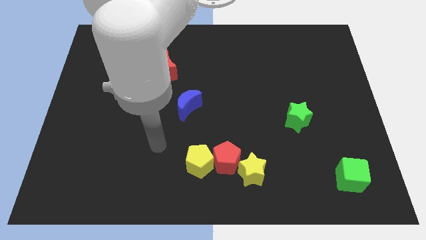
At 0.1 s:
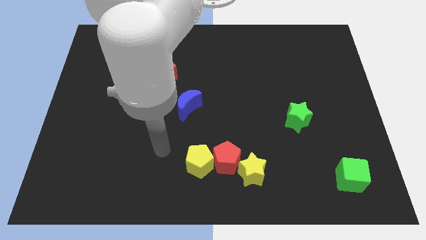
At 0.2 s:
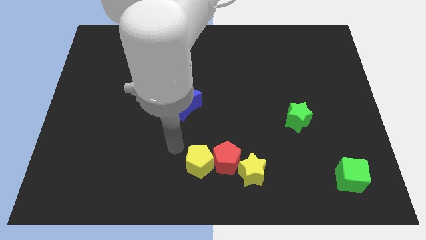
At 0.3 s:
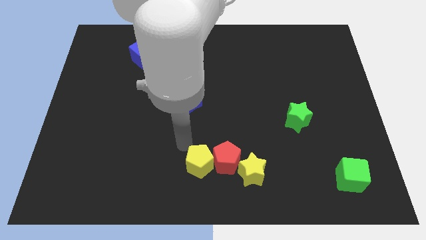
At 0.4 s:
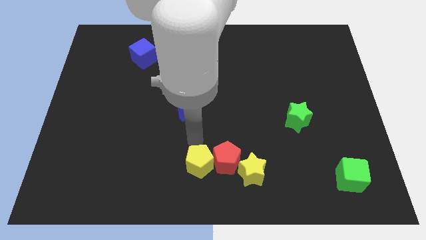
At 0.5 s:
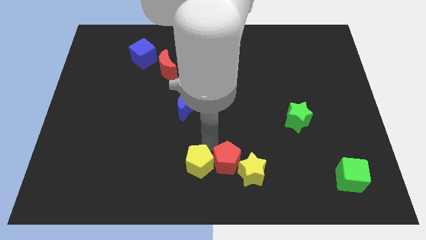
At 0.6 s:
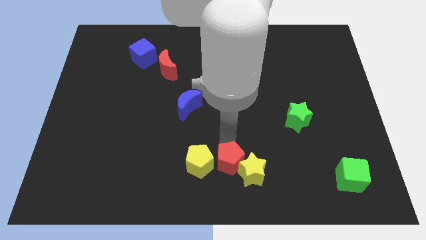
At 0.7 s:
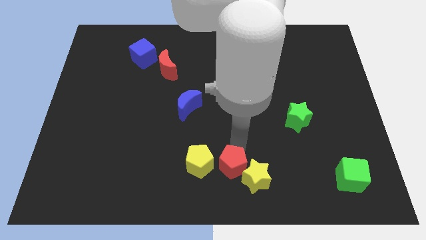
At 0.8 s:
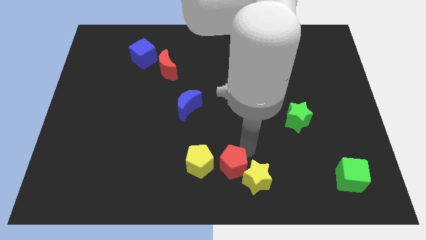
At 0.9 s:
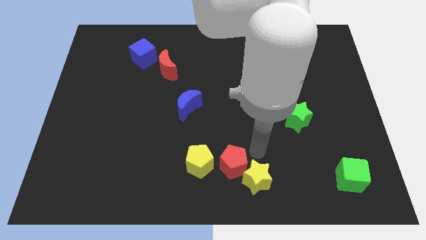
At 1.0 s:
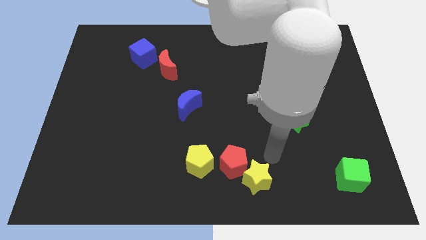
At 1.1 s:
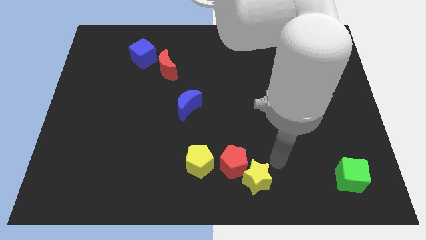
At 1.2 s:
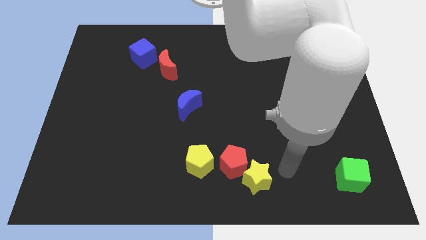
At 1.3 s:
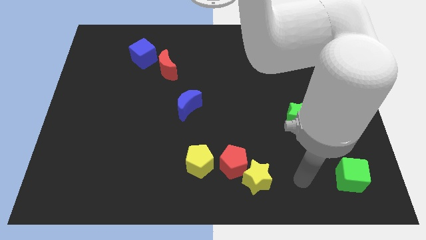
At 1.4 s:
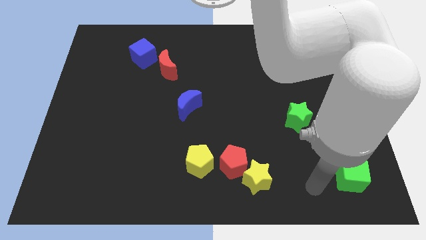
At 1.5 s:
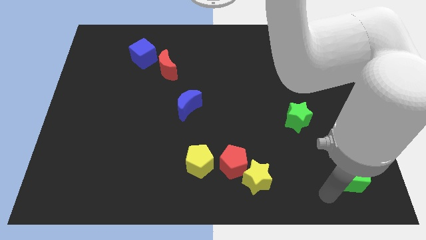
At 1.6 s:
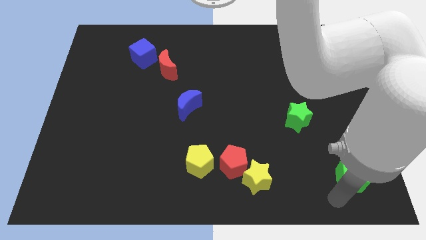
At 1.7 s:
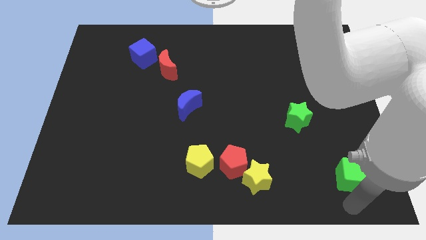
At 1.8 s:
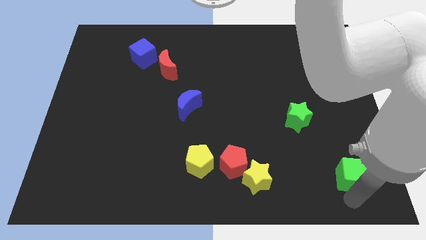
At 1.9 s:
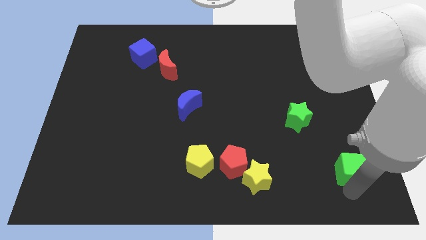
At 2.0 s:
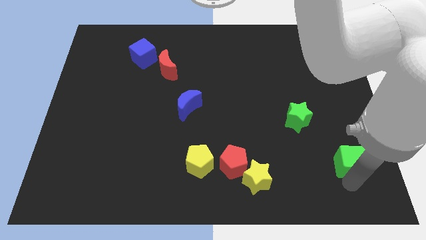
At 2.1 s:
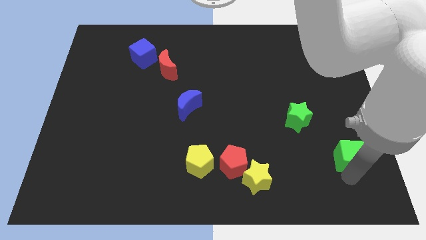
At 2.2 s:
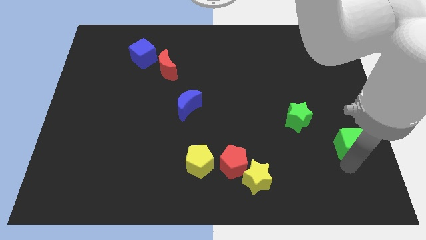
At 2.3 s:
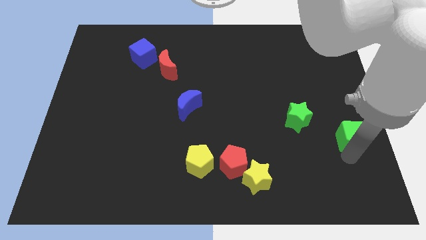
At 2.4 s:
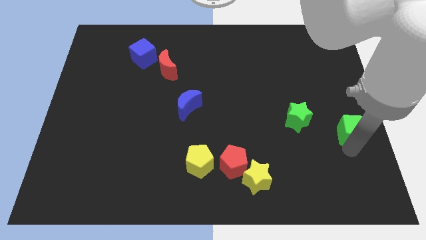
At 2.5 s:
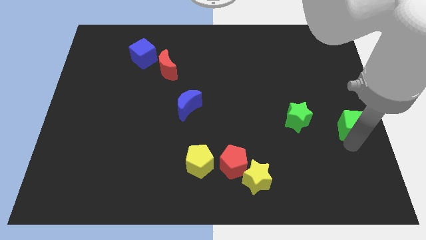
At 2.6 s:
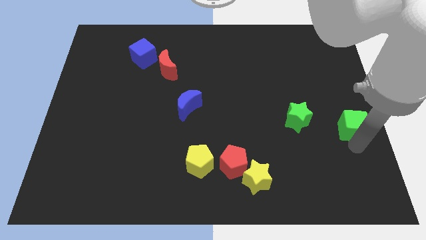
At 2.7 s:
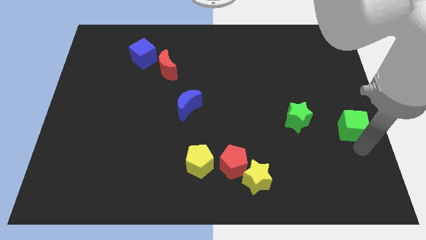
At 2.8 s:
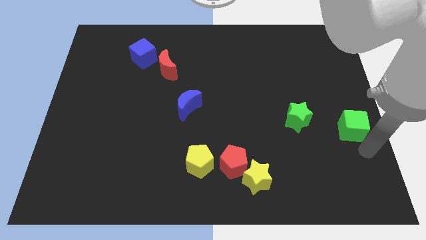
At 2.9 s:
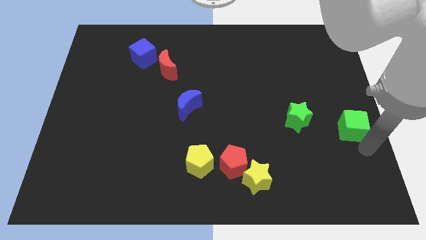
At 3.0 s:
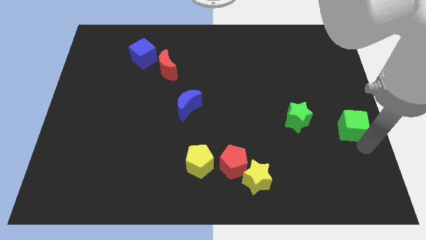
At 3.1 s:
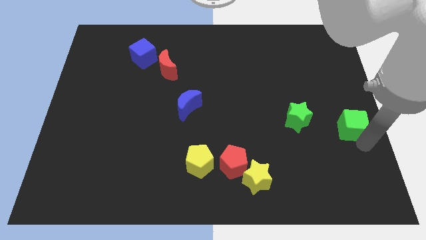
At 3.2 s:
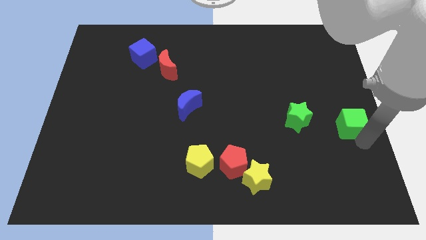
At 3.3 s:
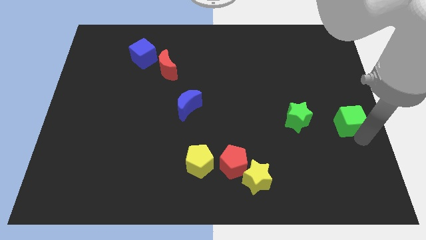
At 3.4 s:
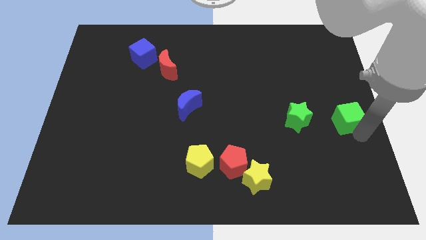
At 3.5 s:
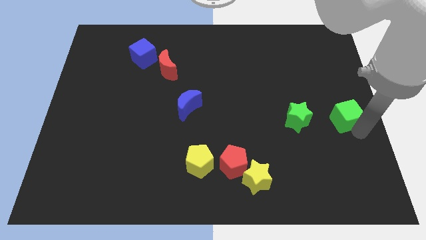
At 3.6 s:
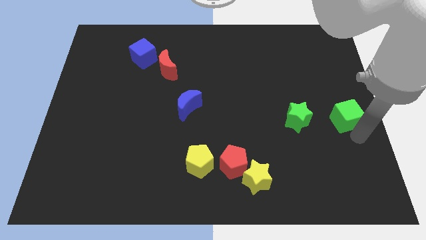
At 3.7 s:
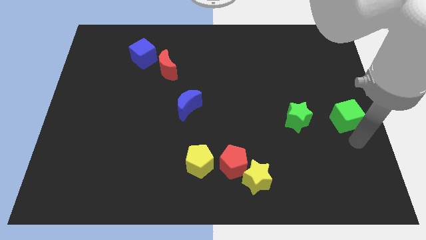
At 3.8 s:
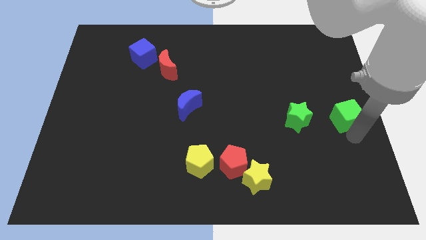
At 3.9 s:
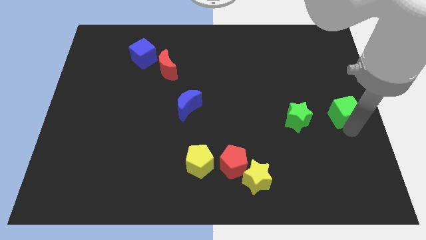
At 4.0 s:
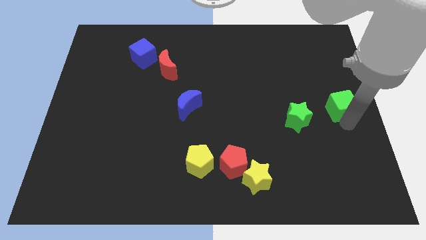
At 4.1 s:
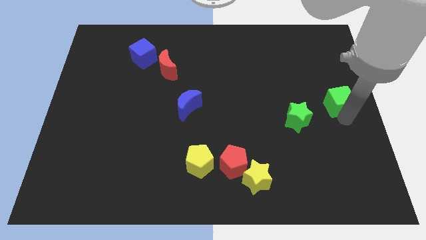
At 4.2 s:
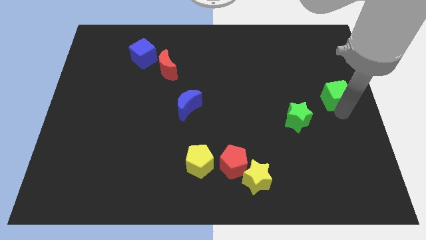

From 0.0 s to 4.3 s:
push the green cube upwards

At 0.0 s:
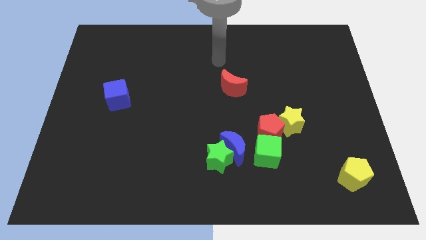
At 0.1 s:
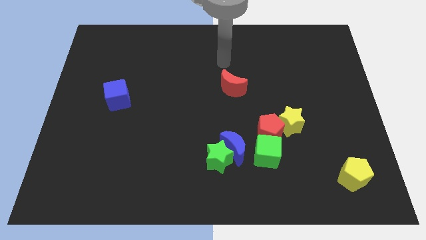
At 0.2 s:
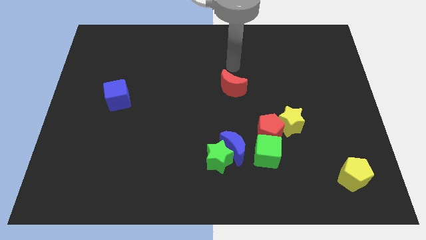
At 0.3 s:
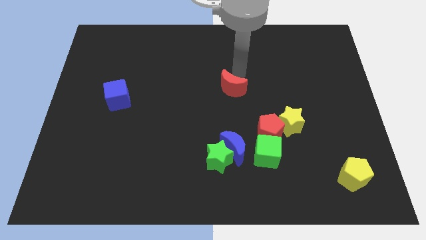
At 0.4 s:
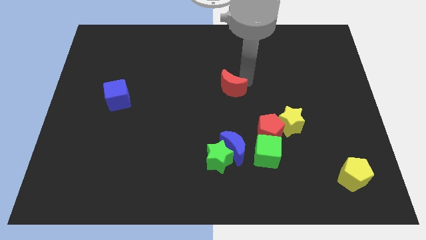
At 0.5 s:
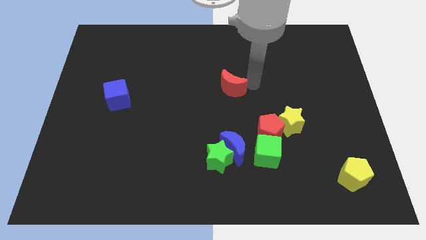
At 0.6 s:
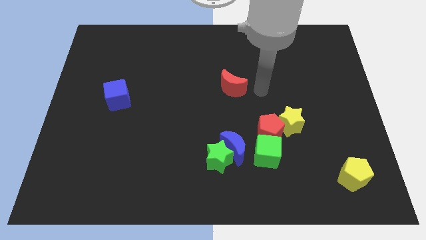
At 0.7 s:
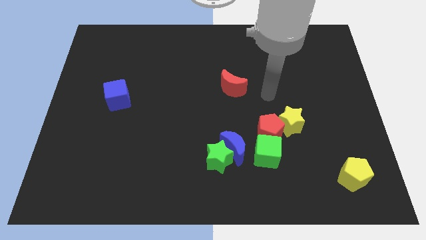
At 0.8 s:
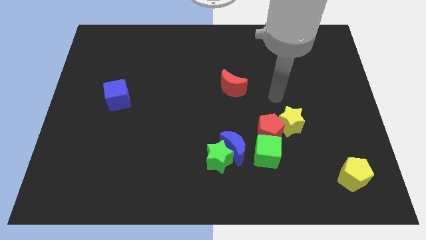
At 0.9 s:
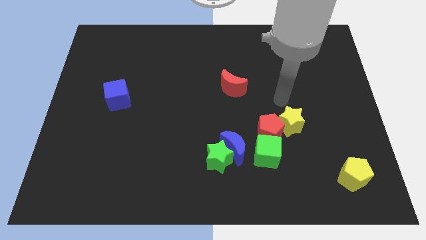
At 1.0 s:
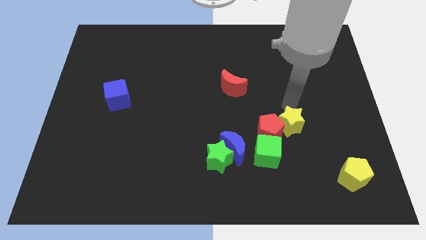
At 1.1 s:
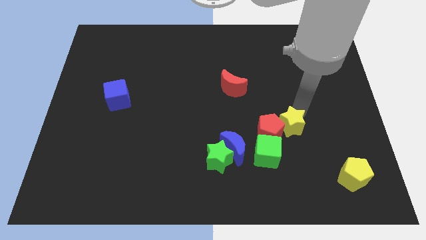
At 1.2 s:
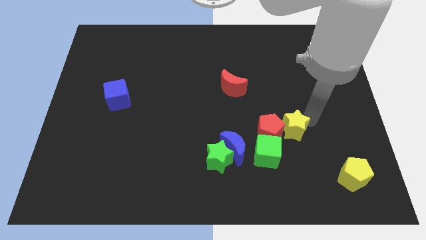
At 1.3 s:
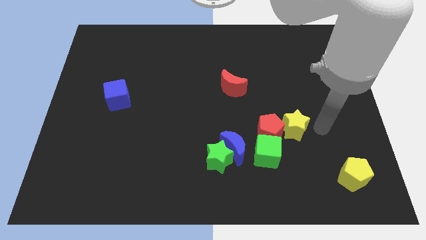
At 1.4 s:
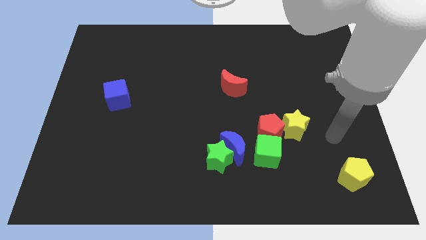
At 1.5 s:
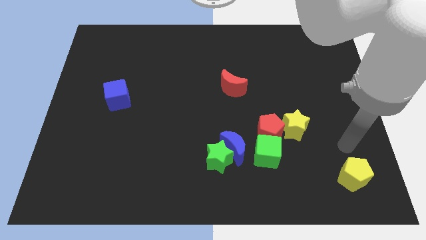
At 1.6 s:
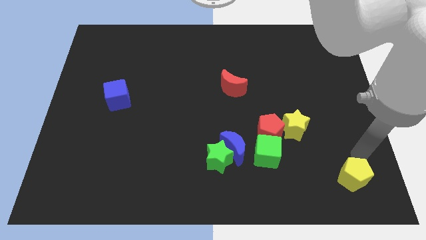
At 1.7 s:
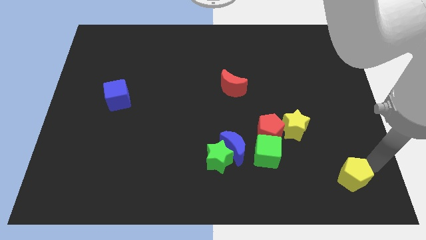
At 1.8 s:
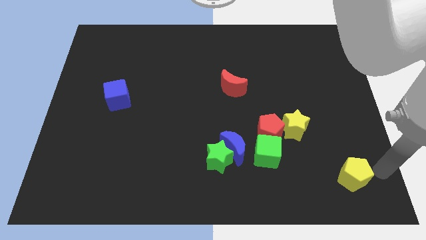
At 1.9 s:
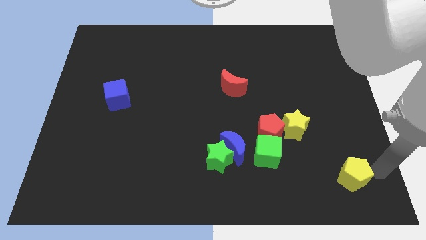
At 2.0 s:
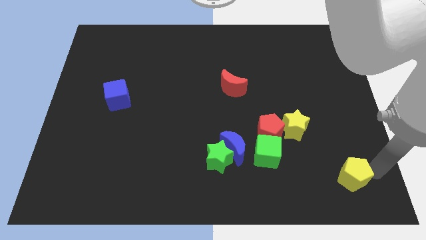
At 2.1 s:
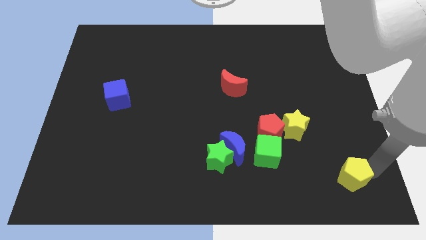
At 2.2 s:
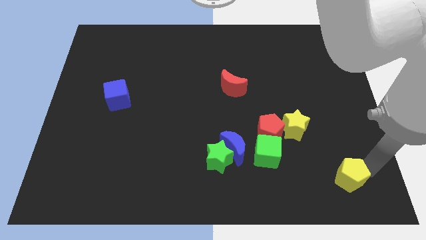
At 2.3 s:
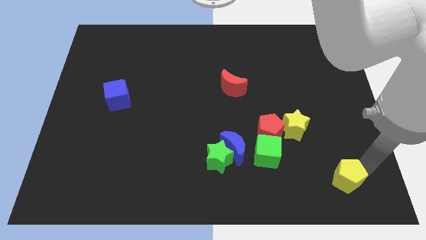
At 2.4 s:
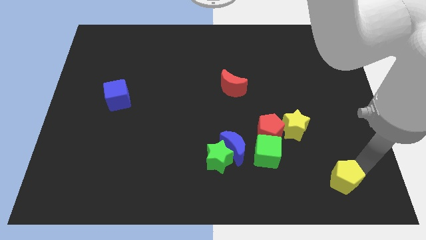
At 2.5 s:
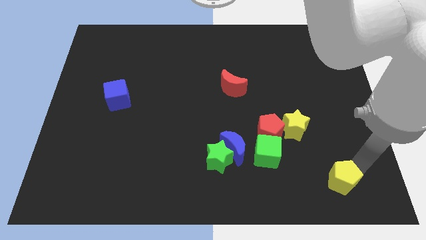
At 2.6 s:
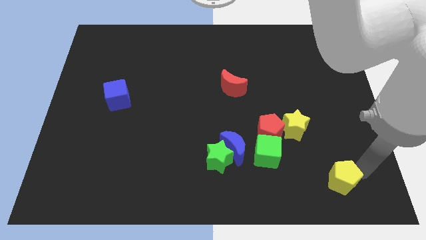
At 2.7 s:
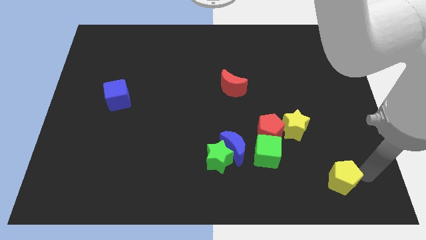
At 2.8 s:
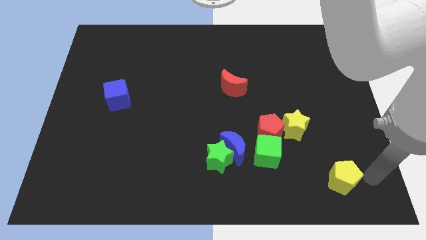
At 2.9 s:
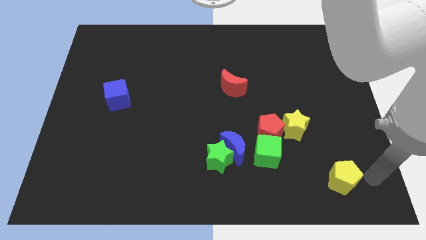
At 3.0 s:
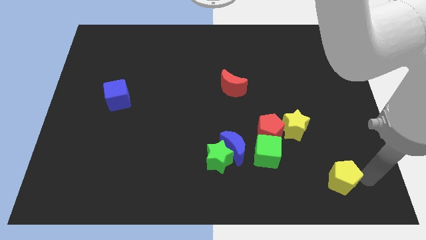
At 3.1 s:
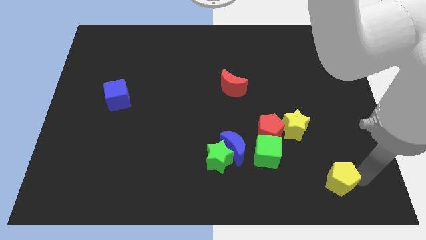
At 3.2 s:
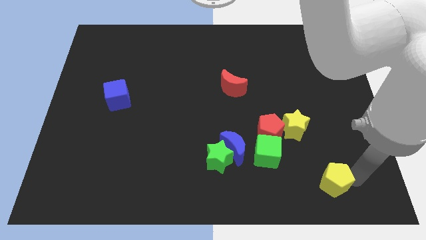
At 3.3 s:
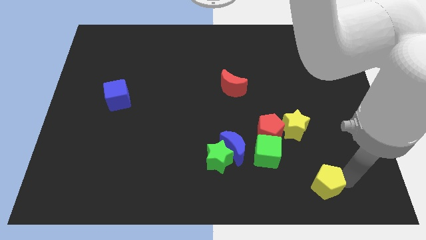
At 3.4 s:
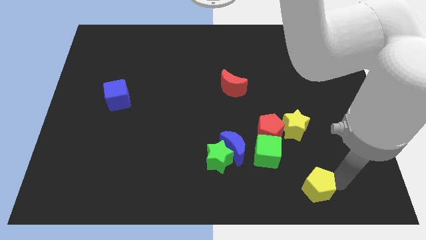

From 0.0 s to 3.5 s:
move the yellow pentagon a little to the left
